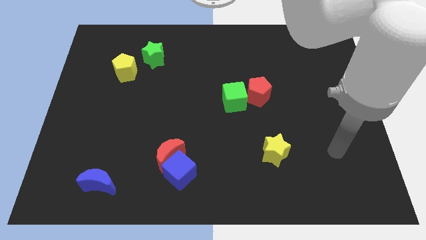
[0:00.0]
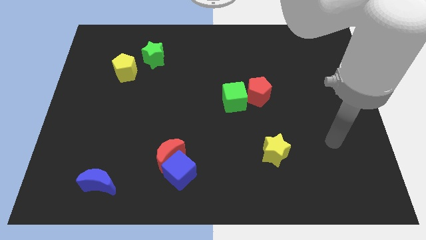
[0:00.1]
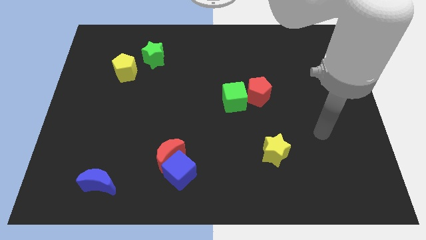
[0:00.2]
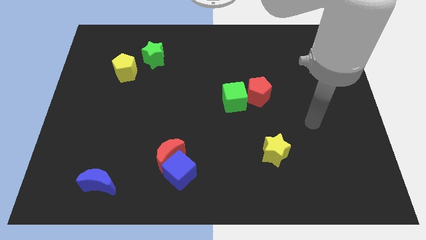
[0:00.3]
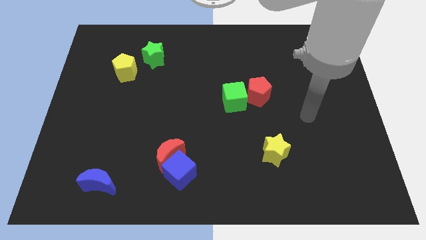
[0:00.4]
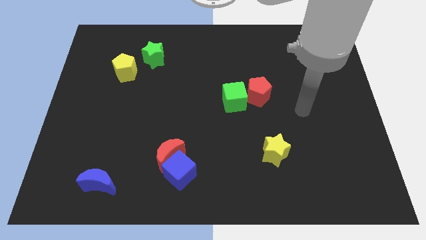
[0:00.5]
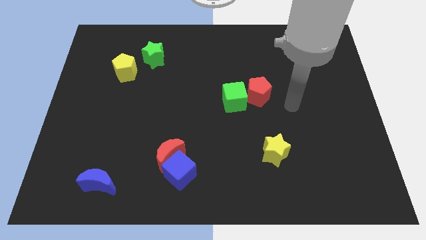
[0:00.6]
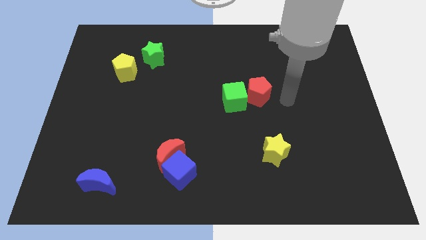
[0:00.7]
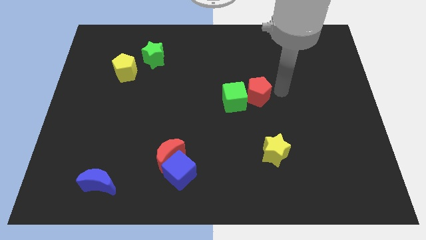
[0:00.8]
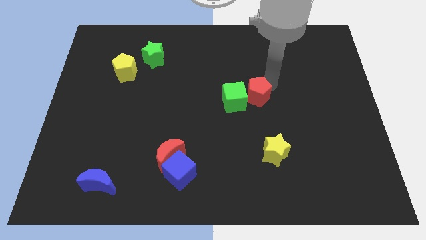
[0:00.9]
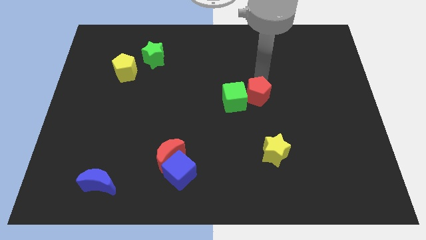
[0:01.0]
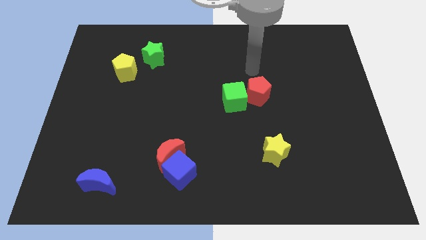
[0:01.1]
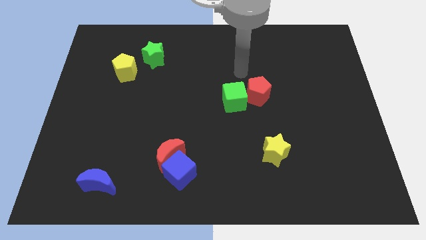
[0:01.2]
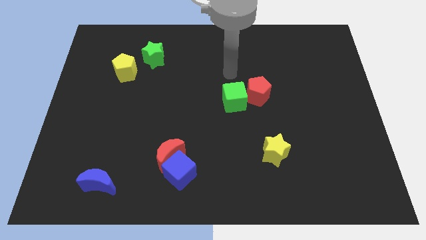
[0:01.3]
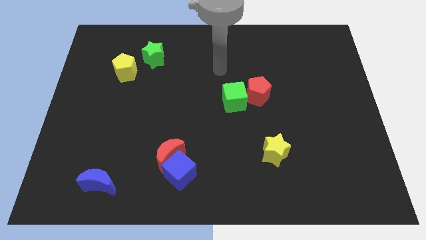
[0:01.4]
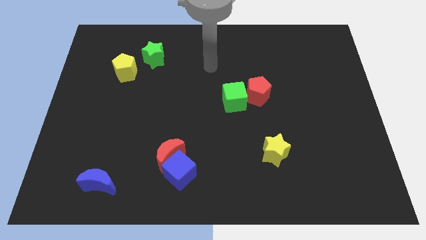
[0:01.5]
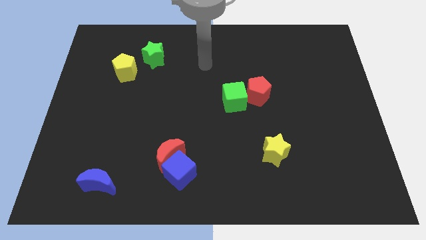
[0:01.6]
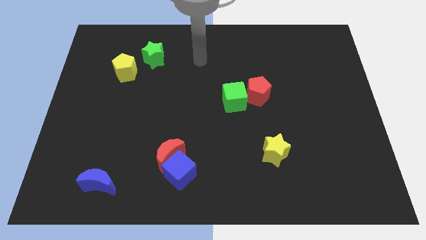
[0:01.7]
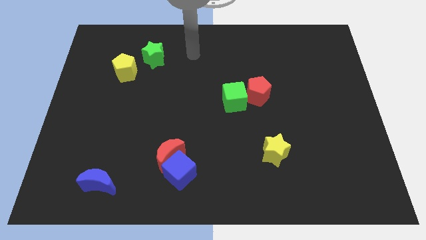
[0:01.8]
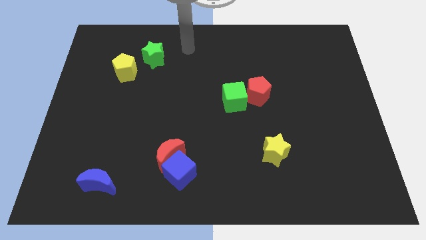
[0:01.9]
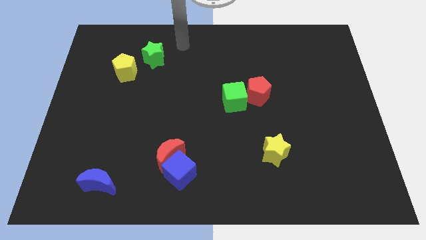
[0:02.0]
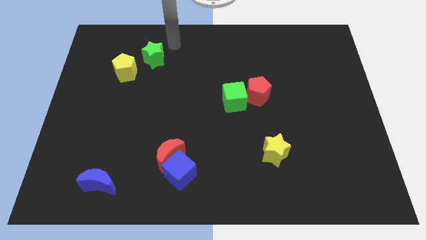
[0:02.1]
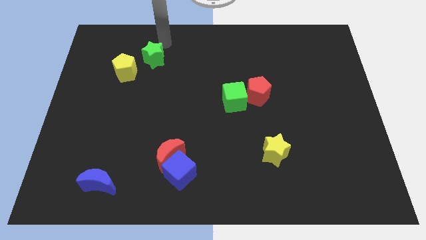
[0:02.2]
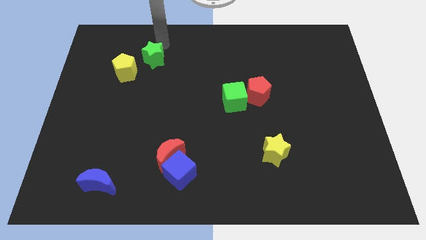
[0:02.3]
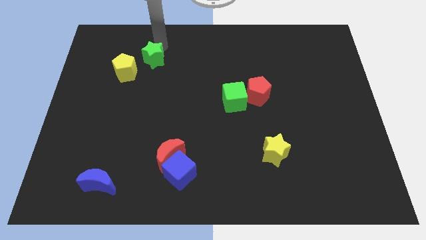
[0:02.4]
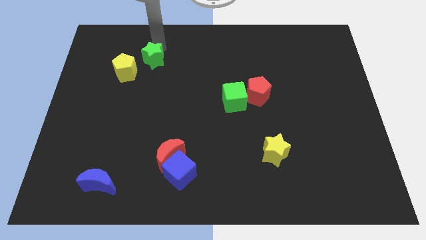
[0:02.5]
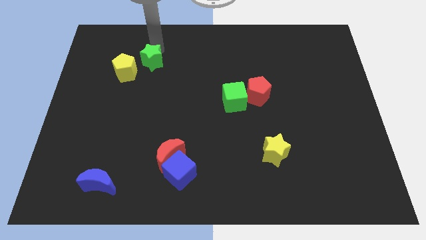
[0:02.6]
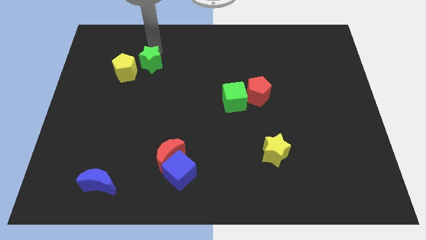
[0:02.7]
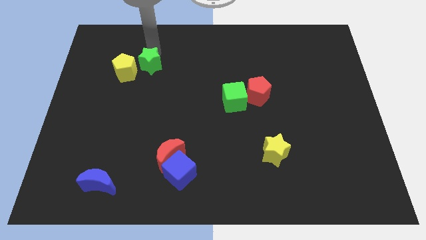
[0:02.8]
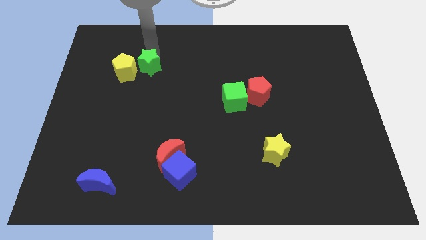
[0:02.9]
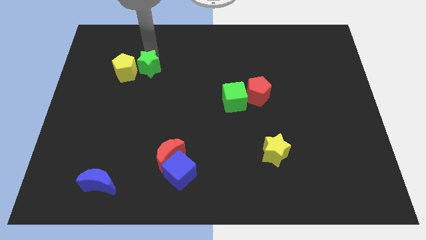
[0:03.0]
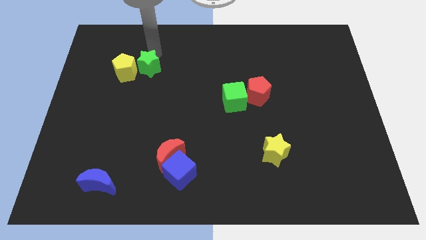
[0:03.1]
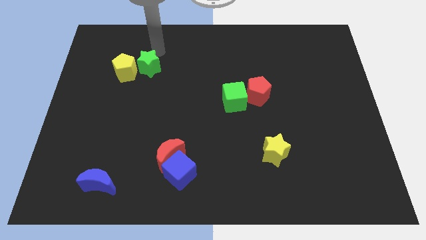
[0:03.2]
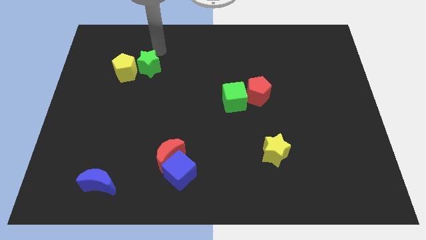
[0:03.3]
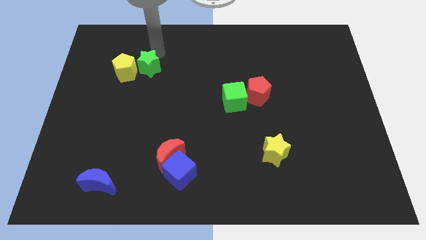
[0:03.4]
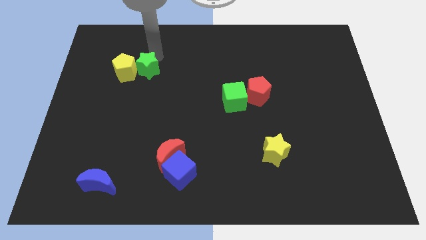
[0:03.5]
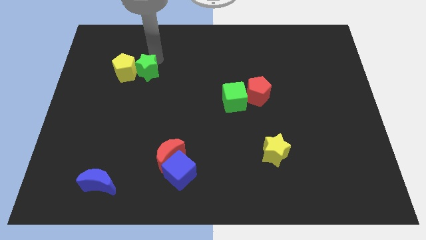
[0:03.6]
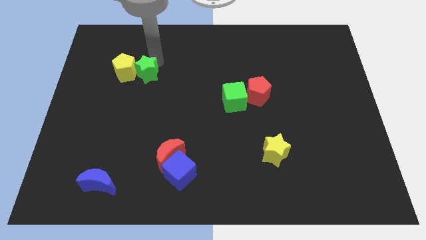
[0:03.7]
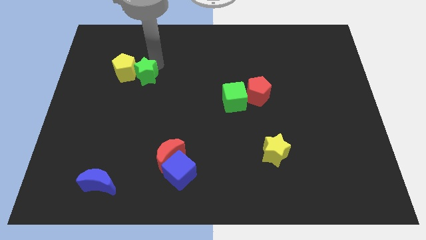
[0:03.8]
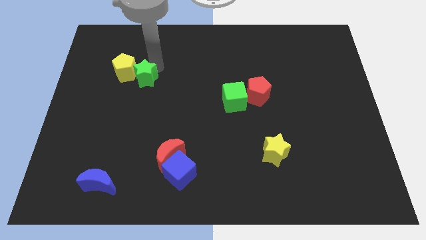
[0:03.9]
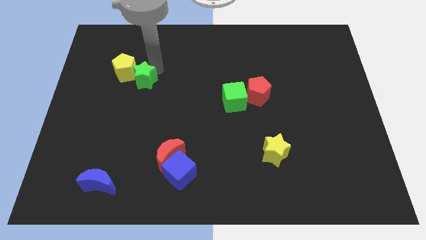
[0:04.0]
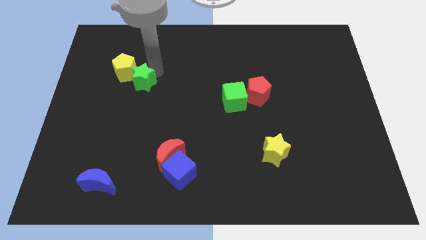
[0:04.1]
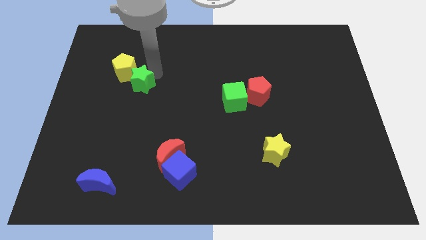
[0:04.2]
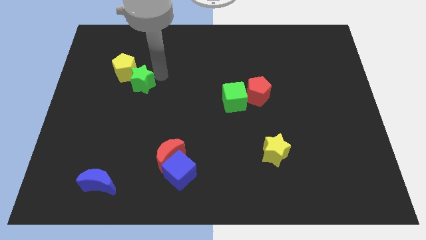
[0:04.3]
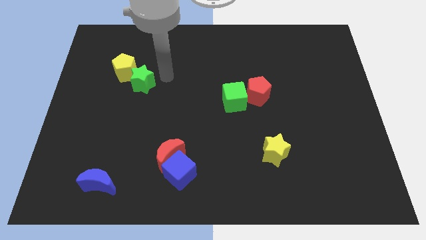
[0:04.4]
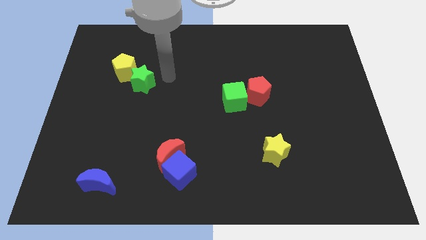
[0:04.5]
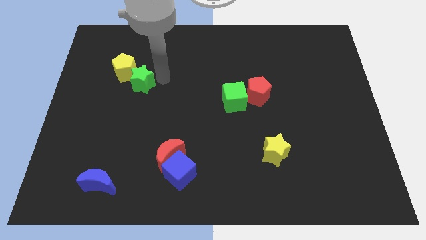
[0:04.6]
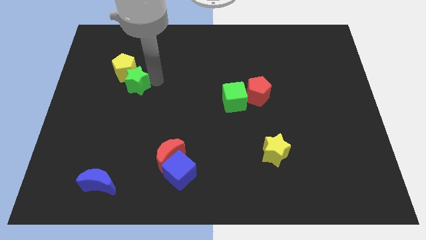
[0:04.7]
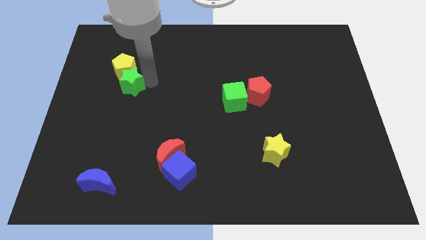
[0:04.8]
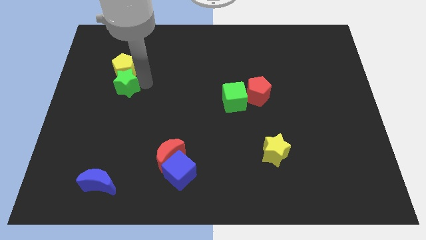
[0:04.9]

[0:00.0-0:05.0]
move the green star diagonally down and to the left of the yellow pentagon

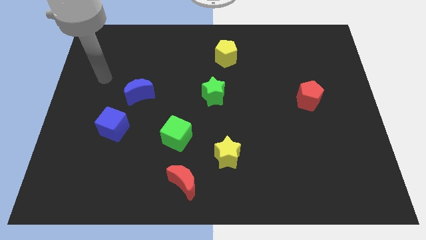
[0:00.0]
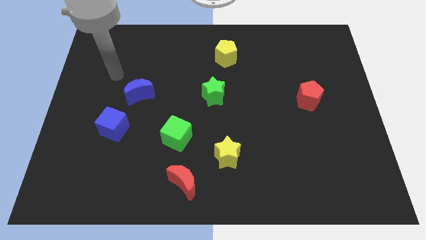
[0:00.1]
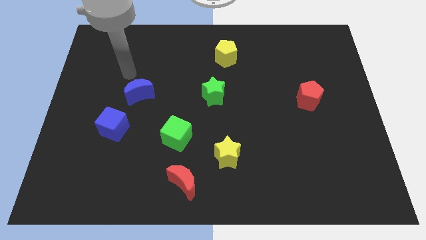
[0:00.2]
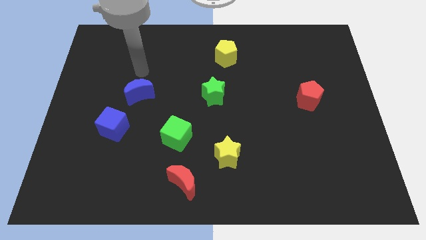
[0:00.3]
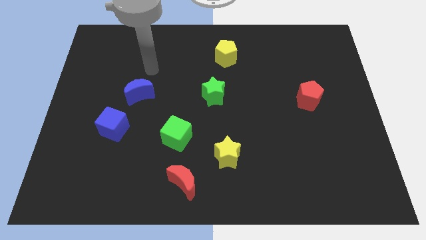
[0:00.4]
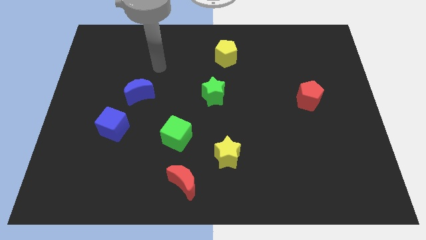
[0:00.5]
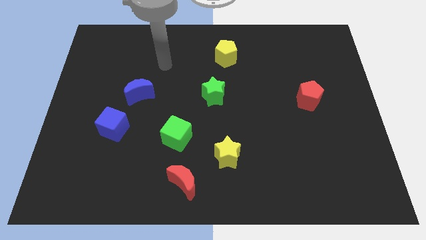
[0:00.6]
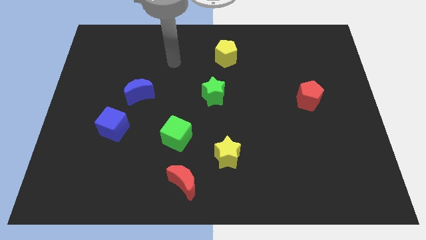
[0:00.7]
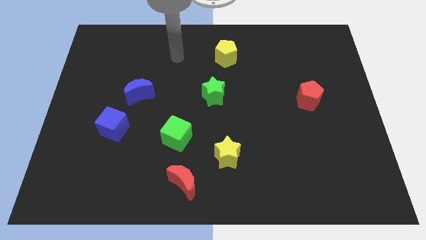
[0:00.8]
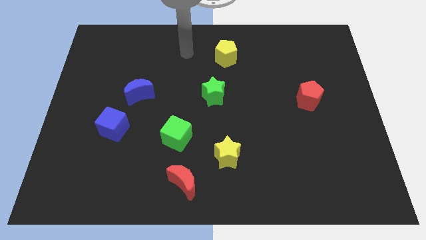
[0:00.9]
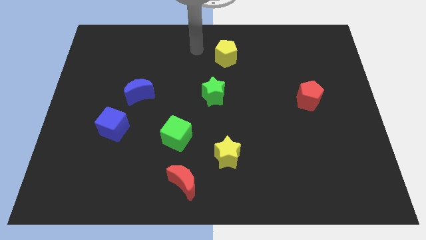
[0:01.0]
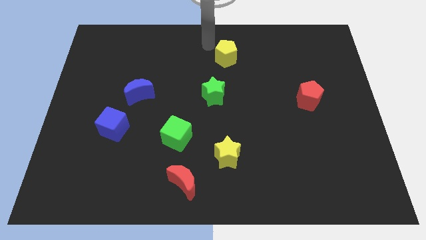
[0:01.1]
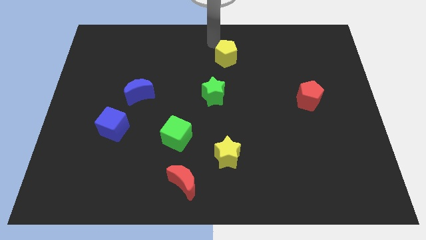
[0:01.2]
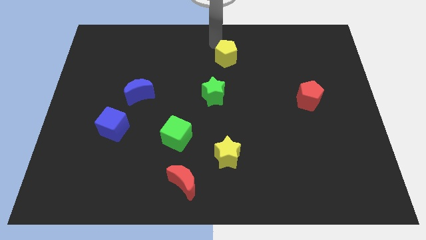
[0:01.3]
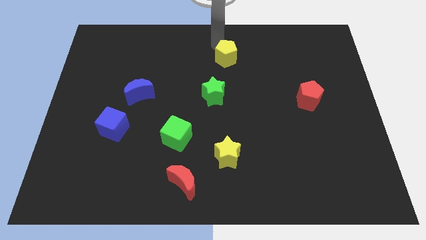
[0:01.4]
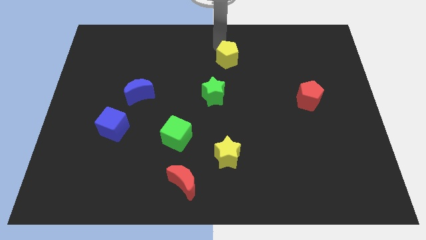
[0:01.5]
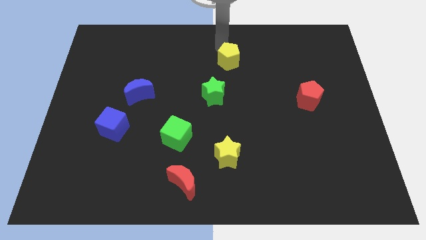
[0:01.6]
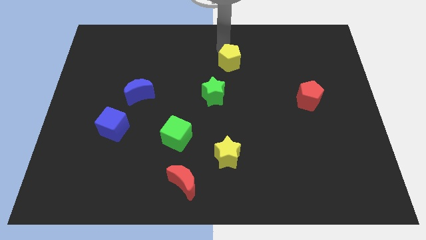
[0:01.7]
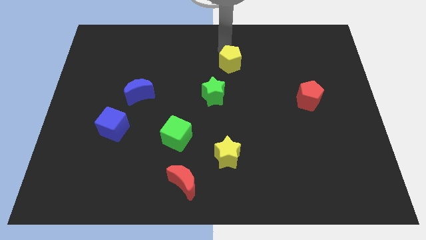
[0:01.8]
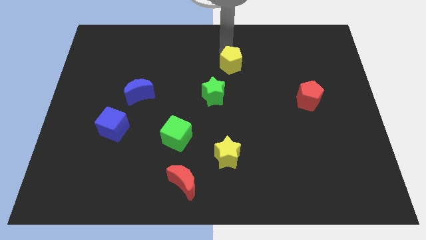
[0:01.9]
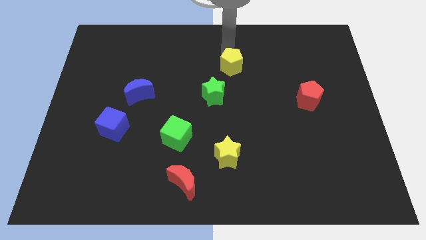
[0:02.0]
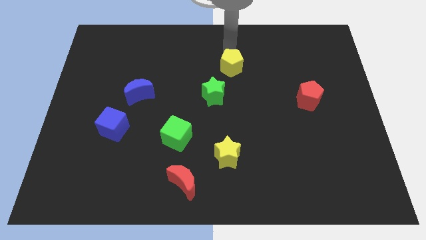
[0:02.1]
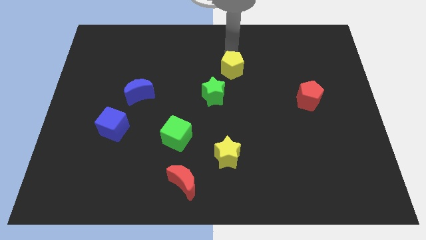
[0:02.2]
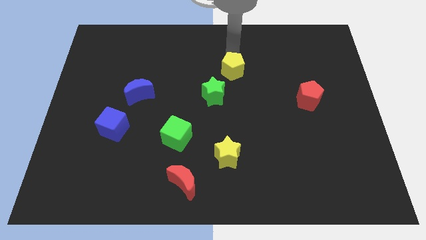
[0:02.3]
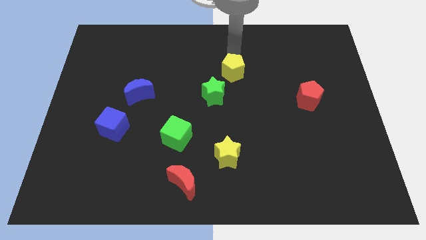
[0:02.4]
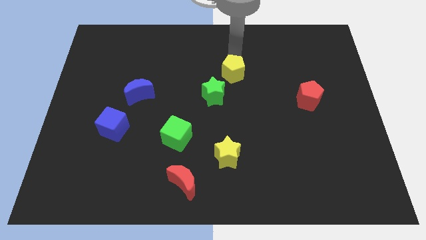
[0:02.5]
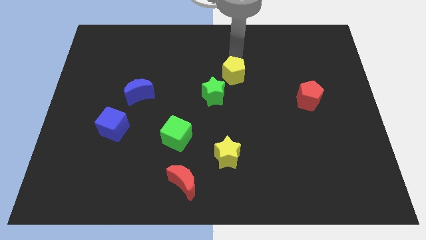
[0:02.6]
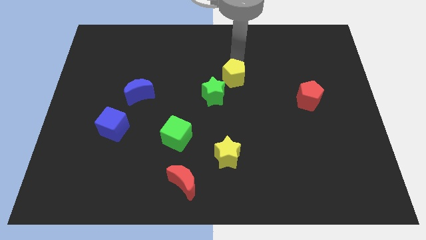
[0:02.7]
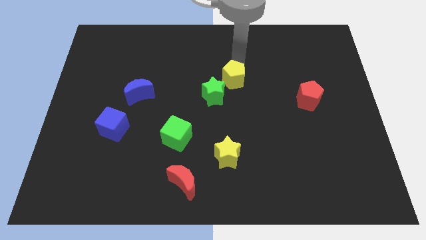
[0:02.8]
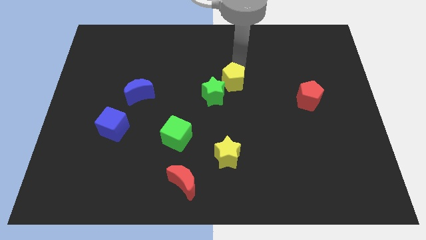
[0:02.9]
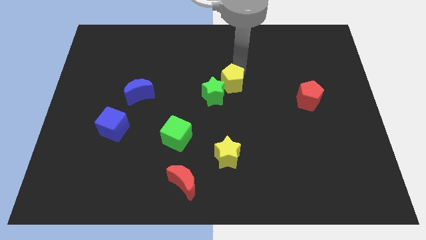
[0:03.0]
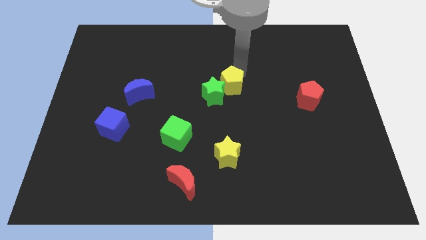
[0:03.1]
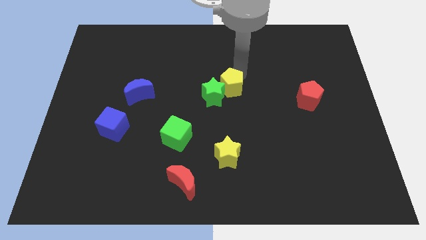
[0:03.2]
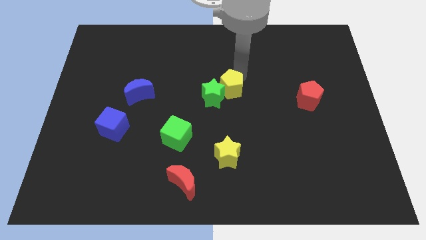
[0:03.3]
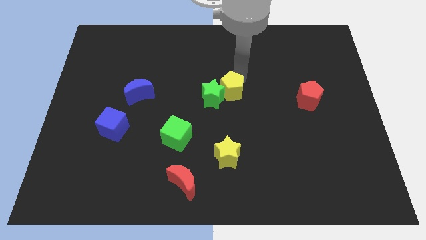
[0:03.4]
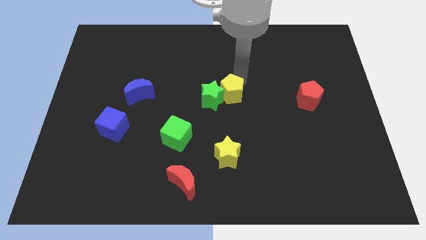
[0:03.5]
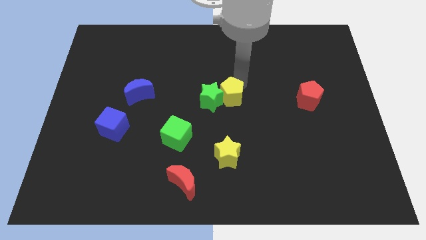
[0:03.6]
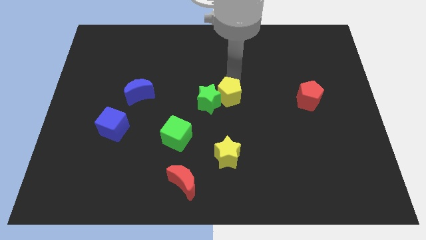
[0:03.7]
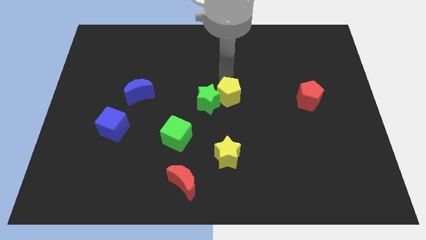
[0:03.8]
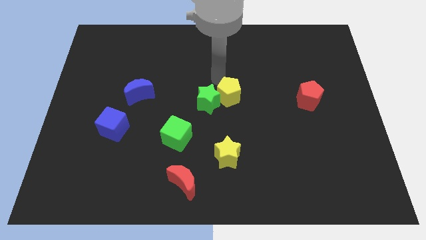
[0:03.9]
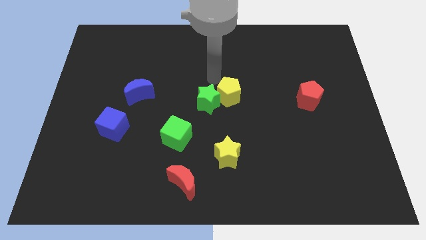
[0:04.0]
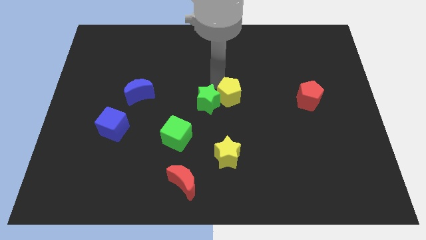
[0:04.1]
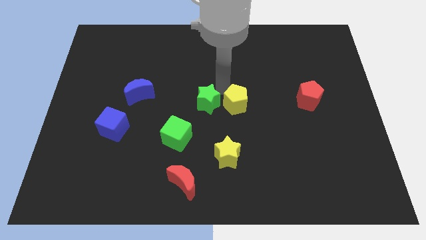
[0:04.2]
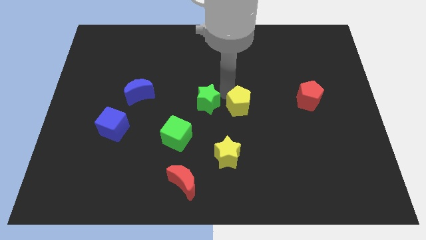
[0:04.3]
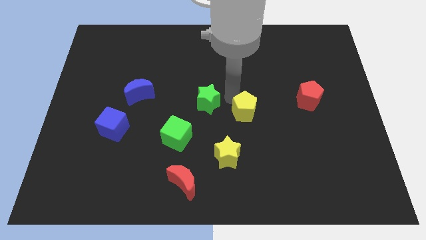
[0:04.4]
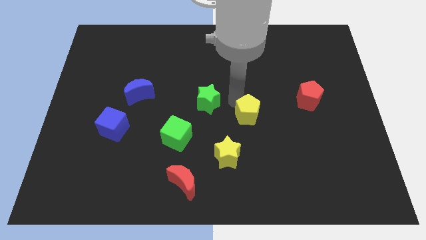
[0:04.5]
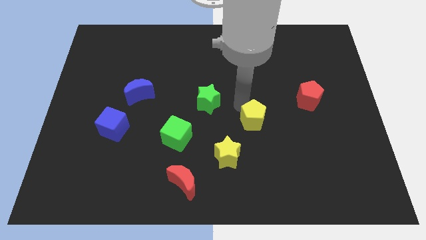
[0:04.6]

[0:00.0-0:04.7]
push the yellow pentagon to the top right of the yellow star
